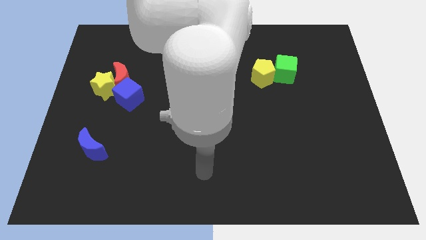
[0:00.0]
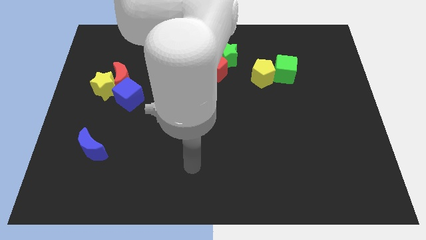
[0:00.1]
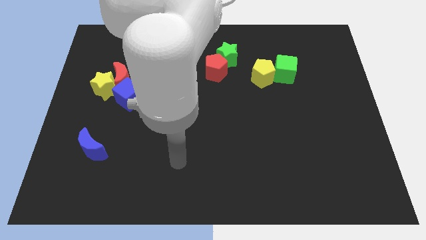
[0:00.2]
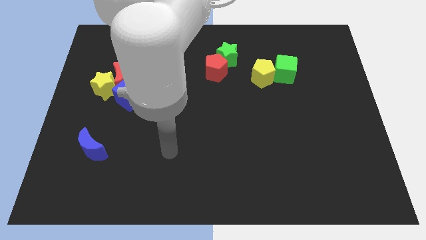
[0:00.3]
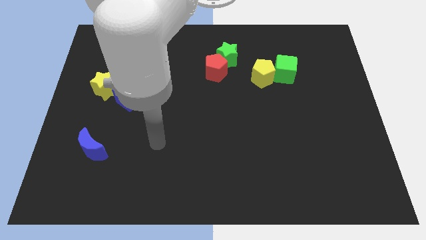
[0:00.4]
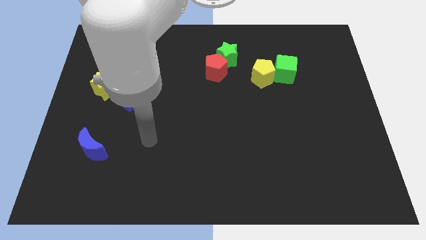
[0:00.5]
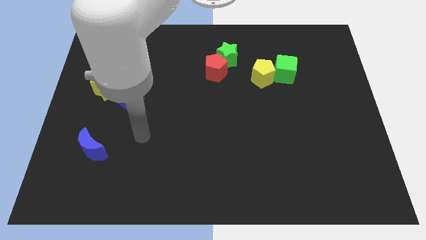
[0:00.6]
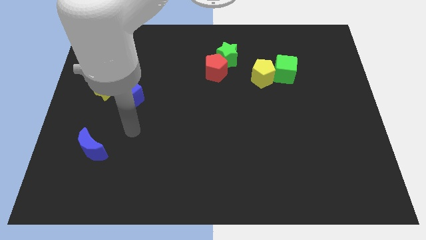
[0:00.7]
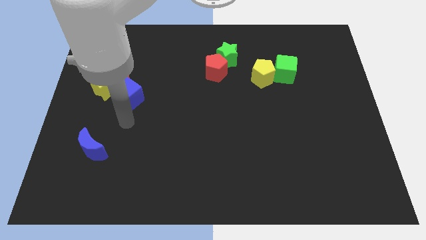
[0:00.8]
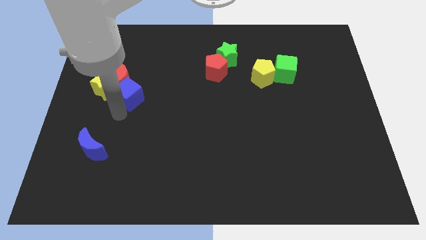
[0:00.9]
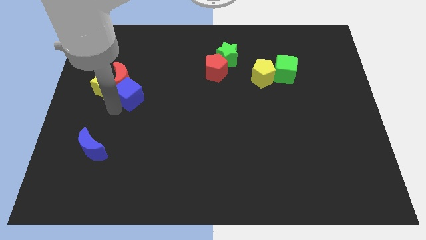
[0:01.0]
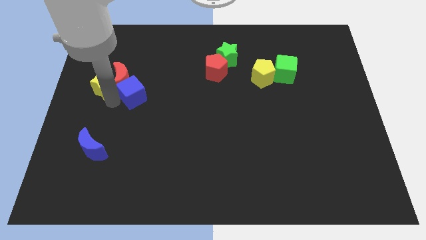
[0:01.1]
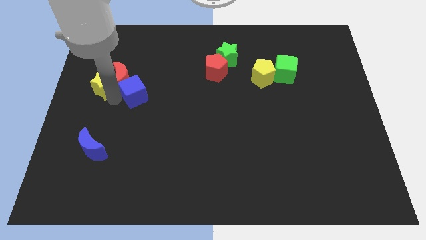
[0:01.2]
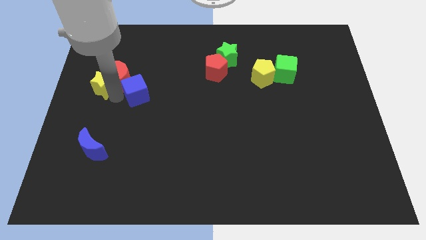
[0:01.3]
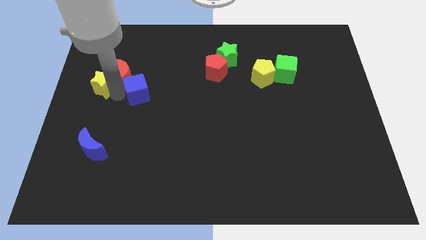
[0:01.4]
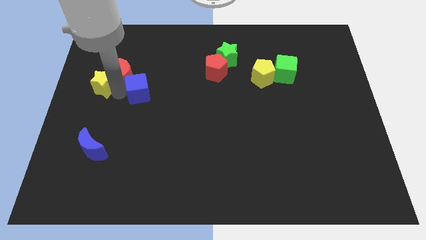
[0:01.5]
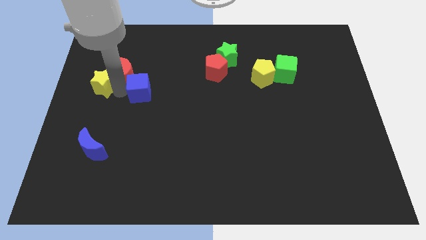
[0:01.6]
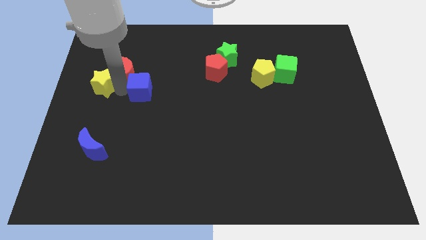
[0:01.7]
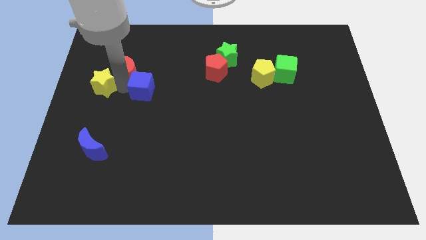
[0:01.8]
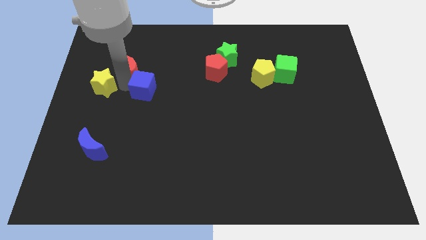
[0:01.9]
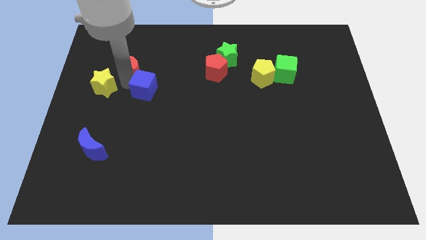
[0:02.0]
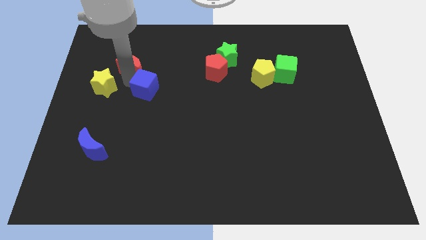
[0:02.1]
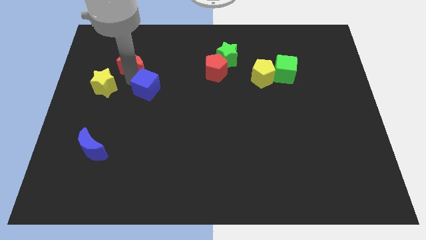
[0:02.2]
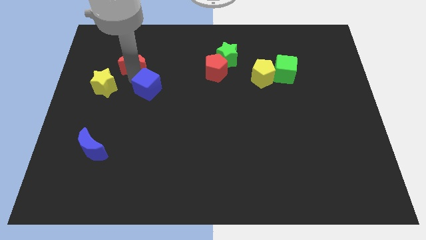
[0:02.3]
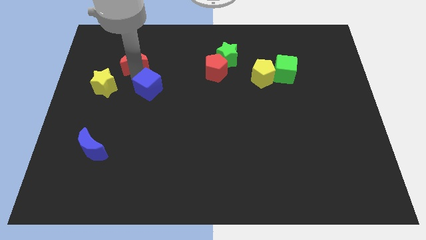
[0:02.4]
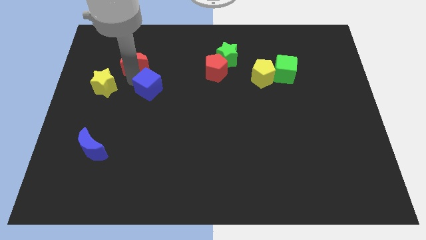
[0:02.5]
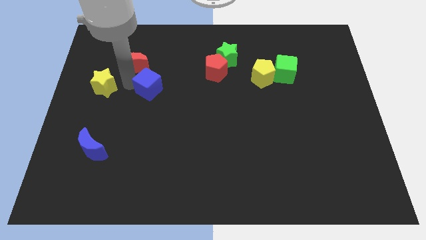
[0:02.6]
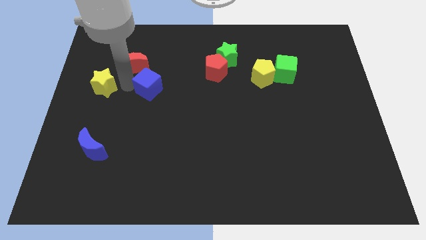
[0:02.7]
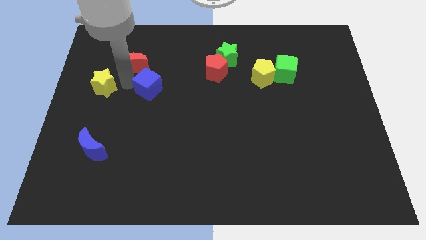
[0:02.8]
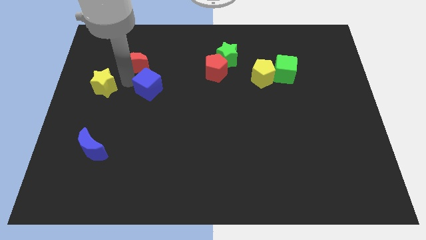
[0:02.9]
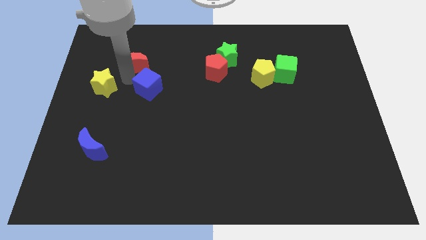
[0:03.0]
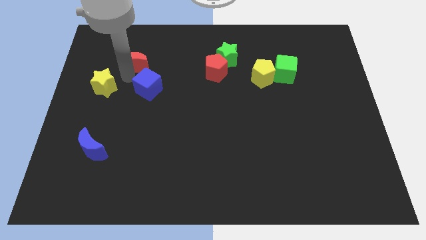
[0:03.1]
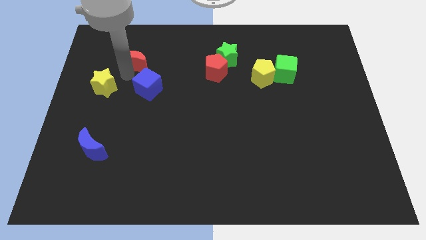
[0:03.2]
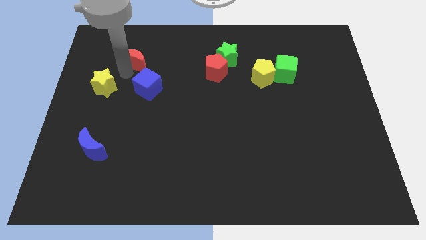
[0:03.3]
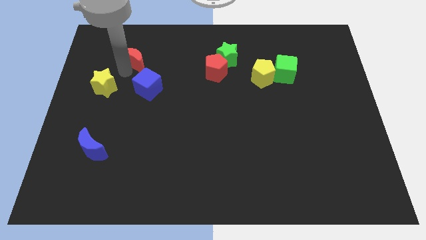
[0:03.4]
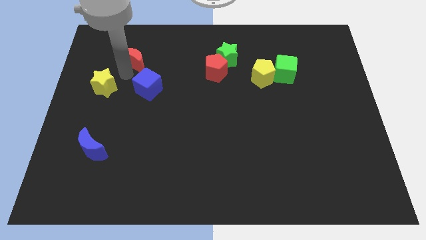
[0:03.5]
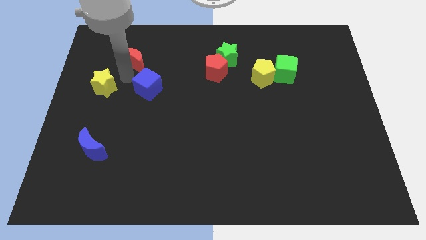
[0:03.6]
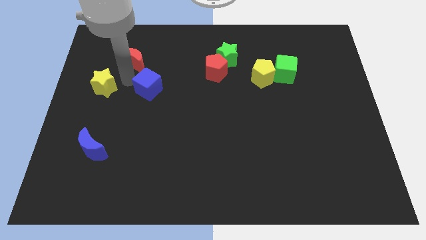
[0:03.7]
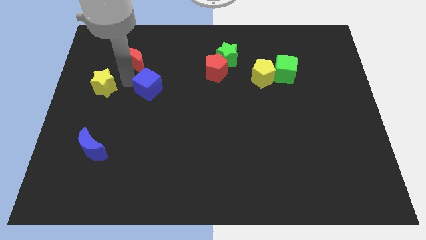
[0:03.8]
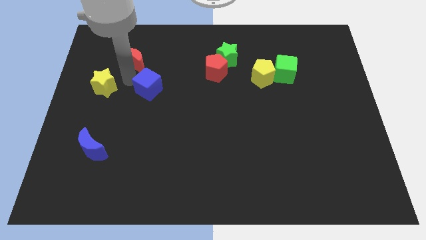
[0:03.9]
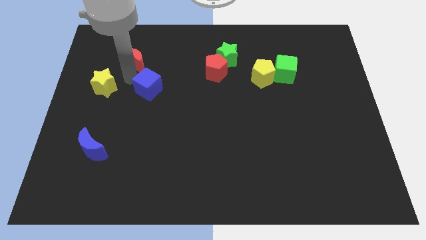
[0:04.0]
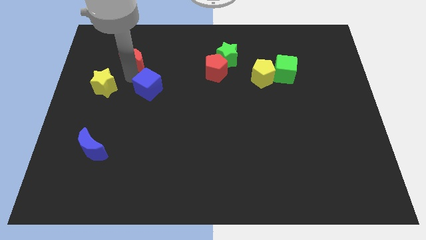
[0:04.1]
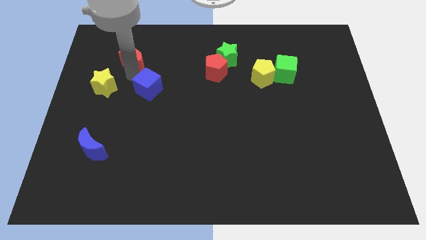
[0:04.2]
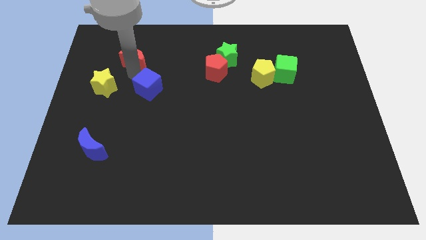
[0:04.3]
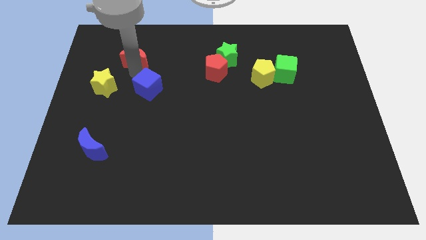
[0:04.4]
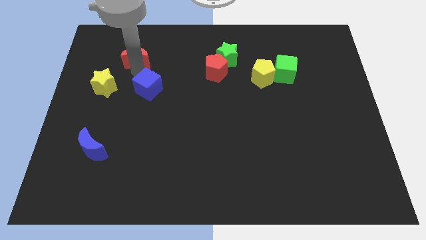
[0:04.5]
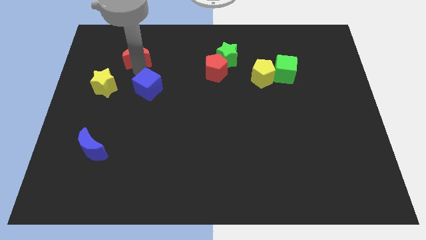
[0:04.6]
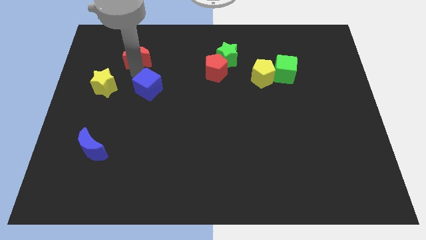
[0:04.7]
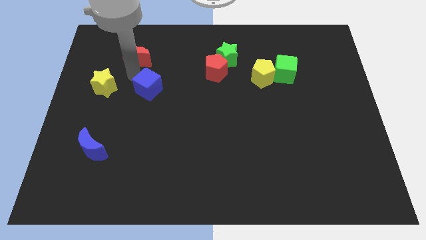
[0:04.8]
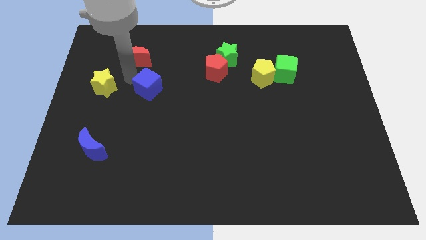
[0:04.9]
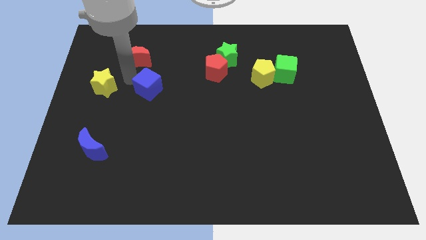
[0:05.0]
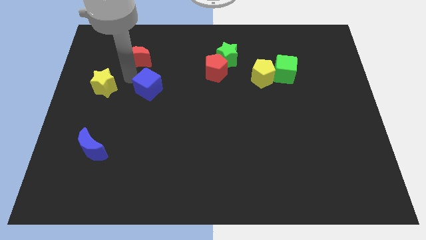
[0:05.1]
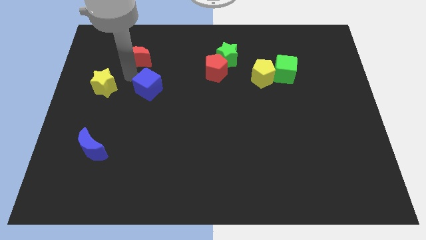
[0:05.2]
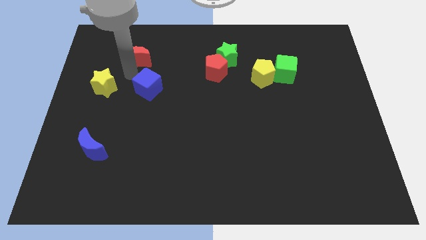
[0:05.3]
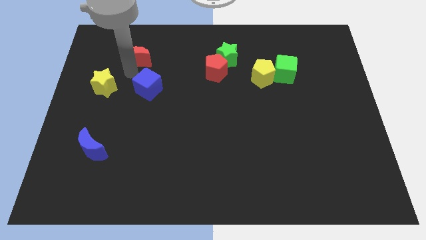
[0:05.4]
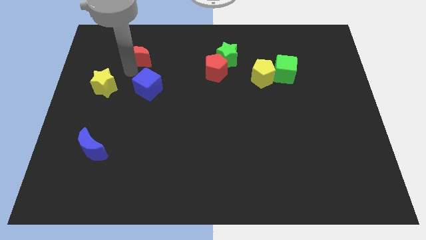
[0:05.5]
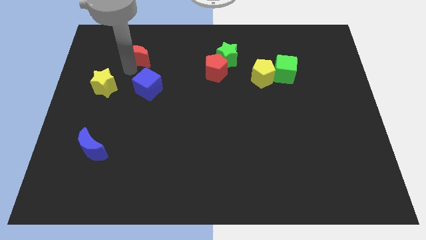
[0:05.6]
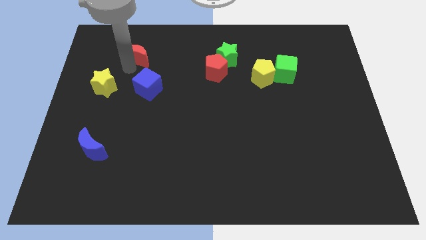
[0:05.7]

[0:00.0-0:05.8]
separate the red moon from the yellow star and blue cube

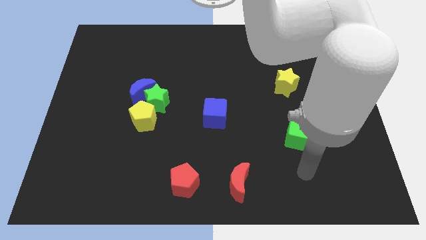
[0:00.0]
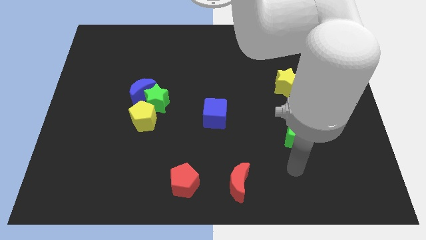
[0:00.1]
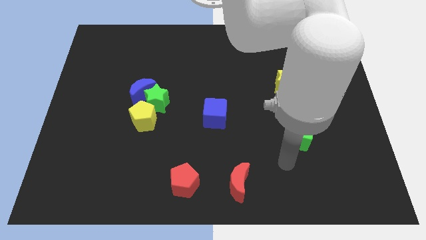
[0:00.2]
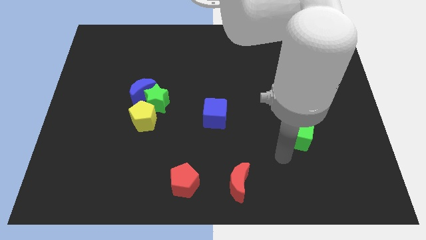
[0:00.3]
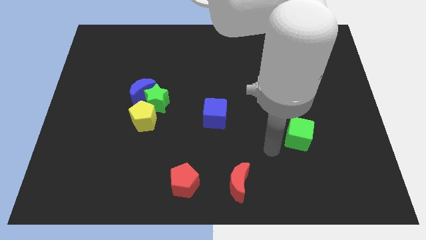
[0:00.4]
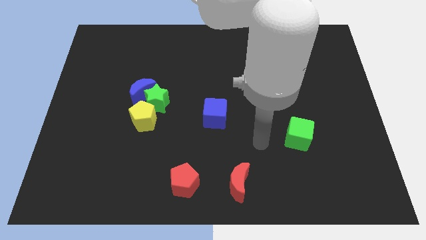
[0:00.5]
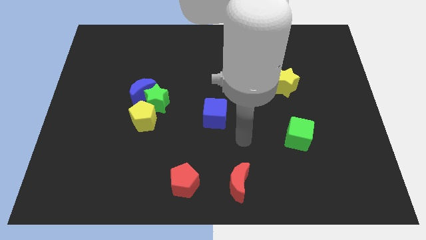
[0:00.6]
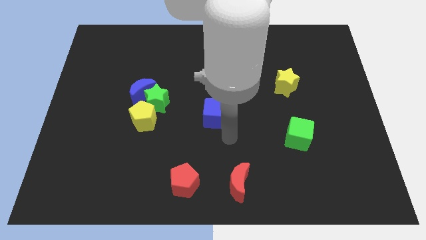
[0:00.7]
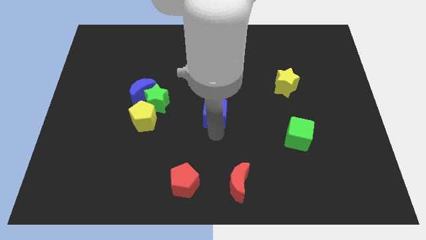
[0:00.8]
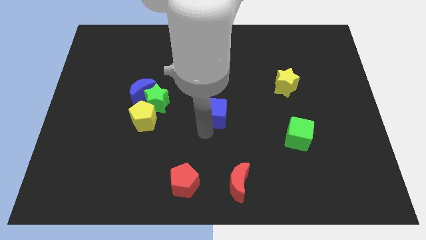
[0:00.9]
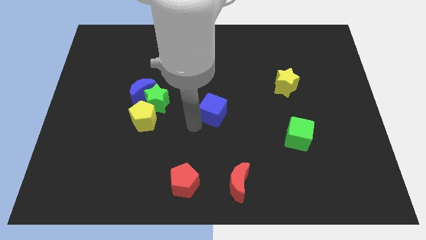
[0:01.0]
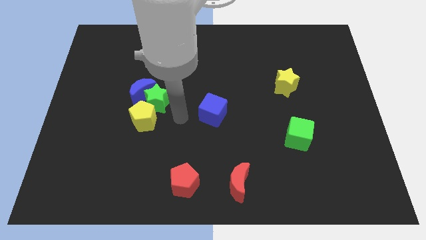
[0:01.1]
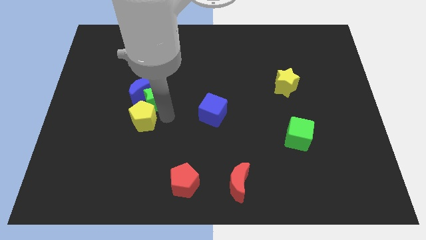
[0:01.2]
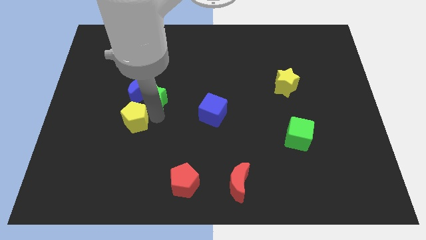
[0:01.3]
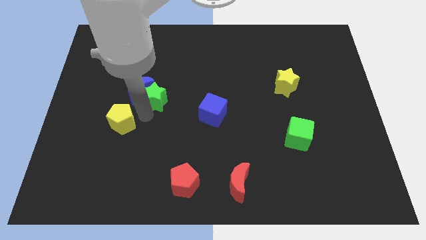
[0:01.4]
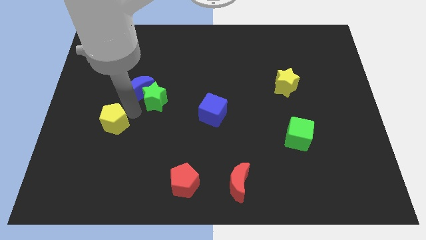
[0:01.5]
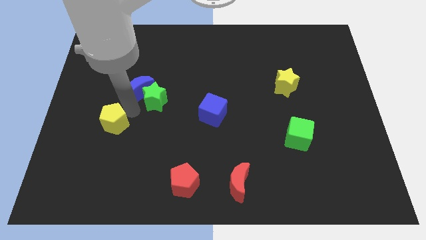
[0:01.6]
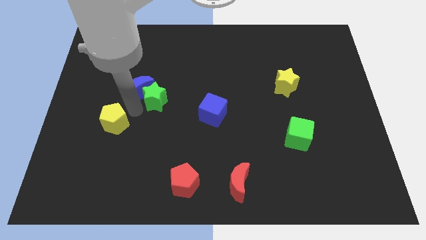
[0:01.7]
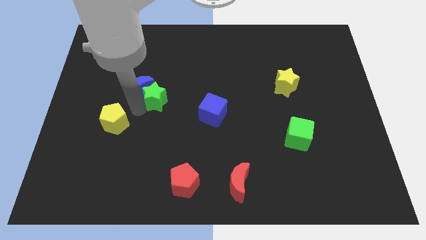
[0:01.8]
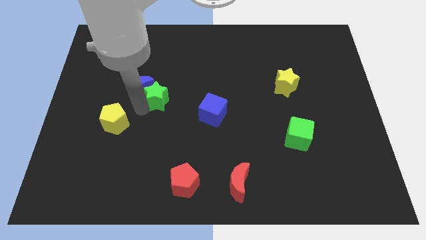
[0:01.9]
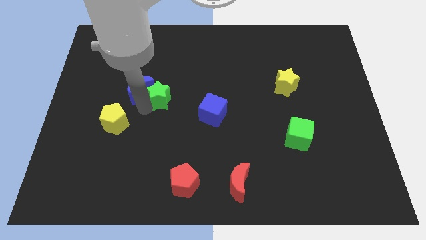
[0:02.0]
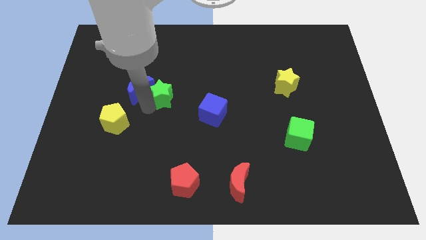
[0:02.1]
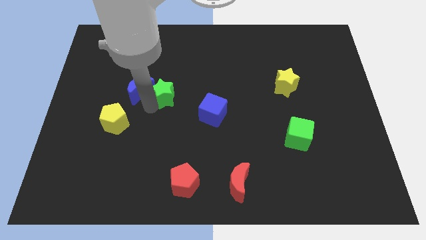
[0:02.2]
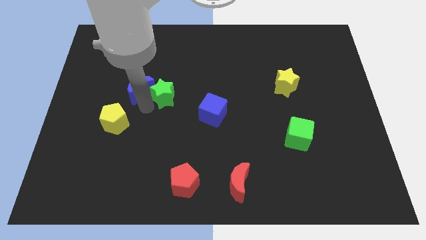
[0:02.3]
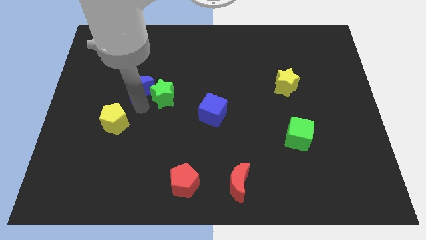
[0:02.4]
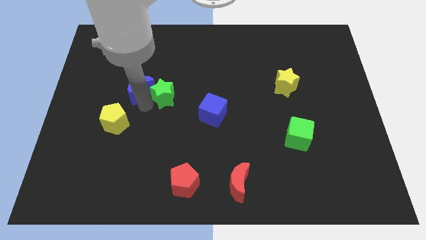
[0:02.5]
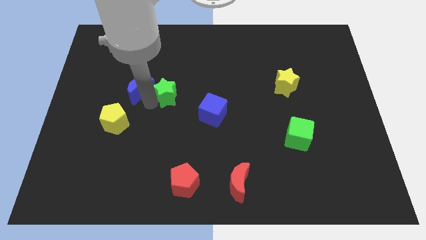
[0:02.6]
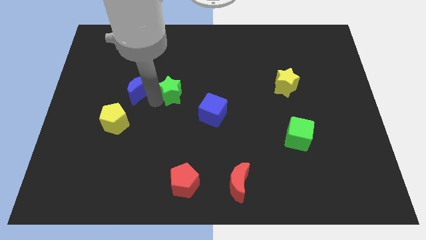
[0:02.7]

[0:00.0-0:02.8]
pull the green star apart from the blue moon and yellow pentagon

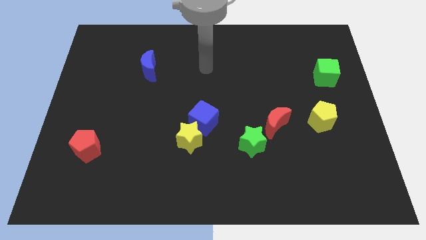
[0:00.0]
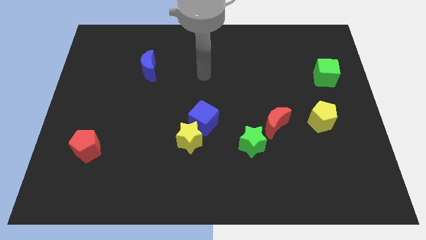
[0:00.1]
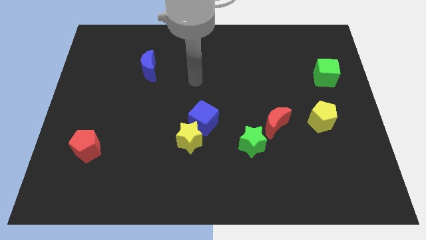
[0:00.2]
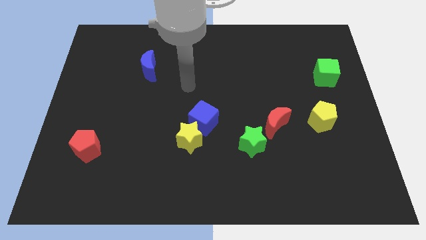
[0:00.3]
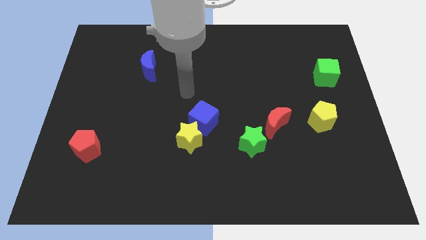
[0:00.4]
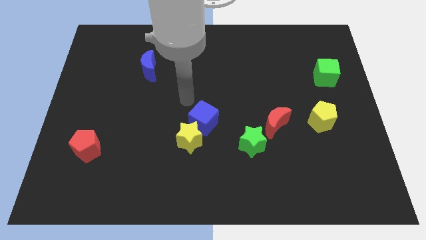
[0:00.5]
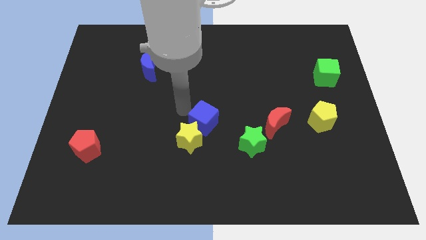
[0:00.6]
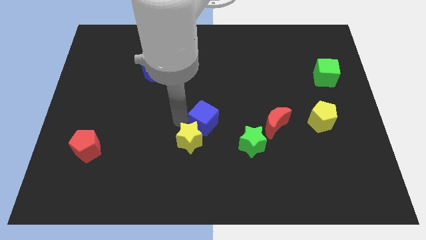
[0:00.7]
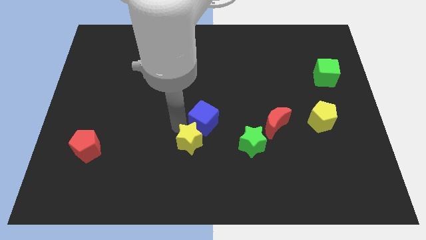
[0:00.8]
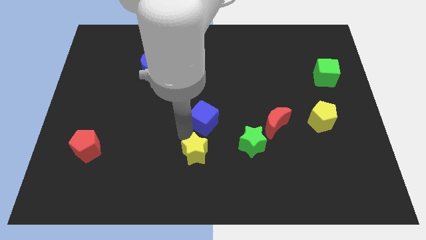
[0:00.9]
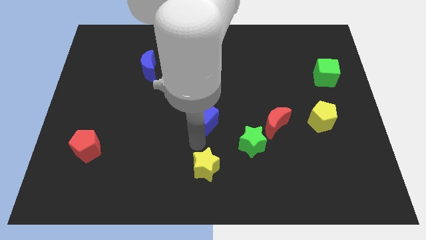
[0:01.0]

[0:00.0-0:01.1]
move the blue cube away from the yellow star
